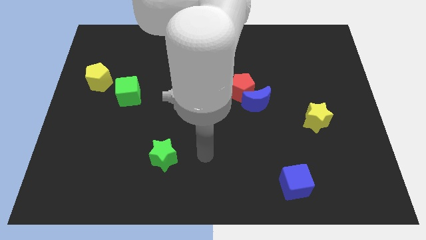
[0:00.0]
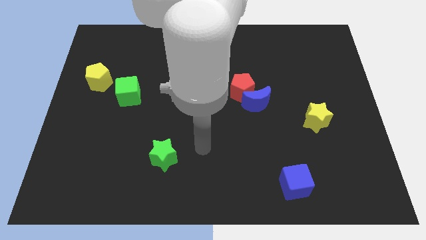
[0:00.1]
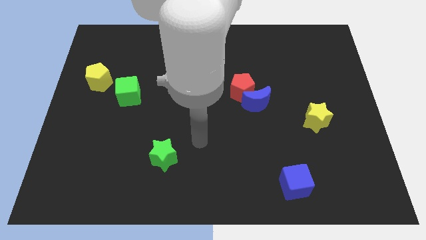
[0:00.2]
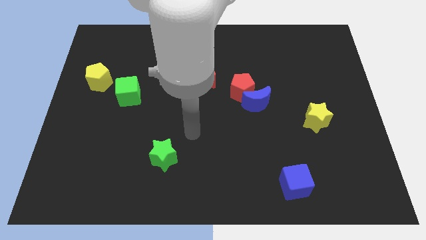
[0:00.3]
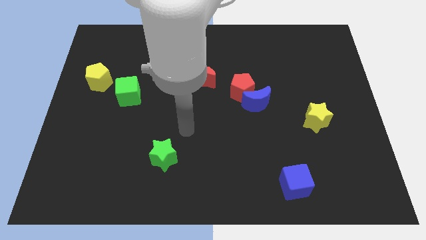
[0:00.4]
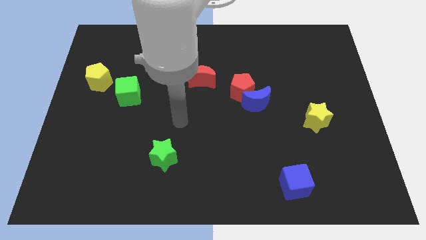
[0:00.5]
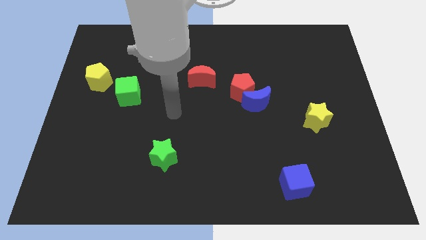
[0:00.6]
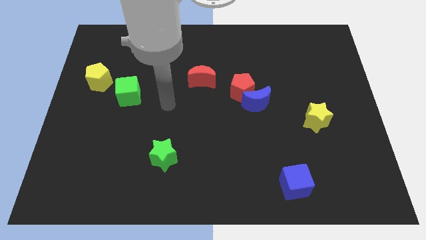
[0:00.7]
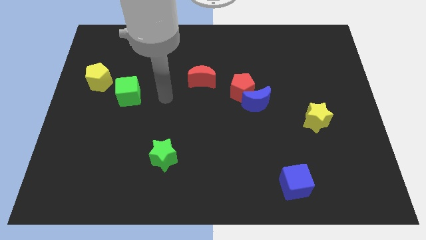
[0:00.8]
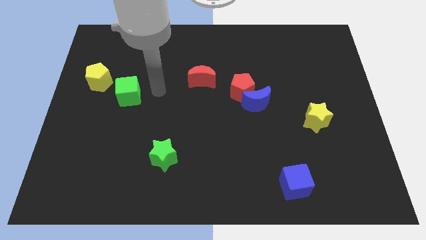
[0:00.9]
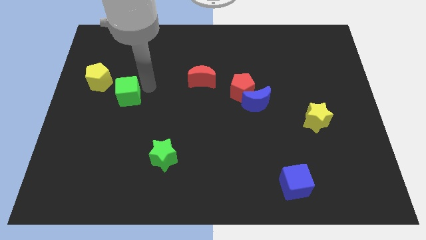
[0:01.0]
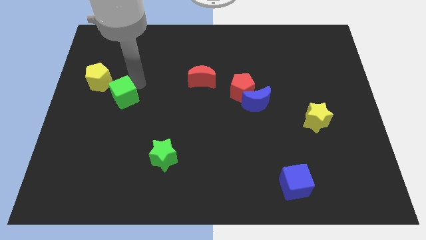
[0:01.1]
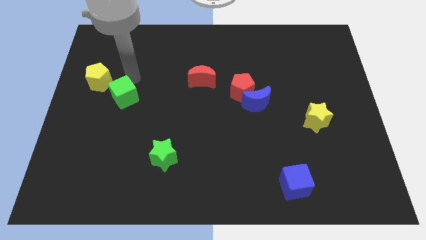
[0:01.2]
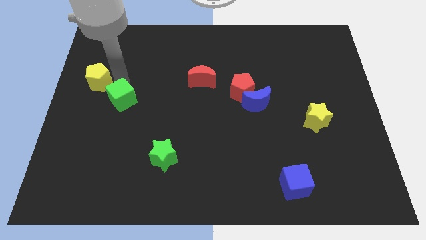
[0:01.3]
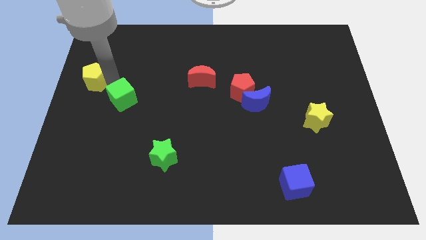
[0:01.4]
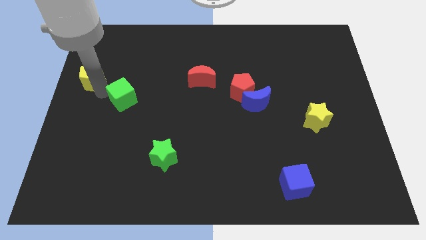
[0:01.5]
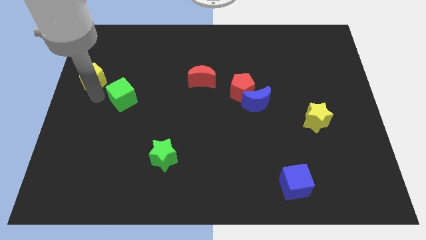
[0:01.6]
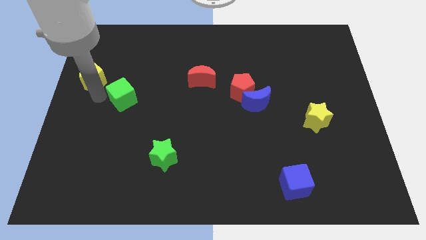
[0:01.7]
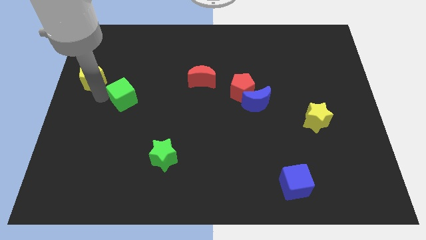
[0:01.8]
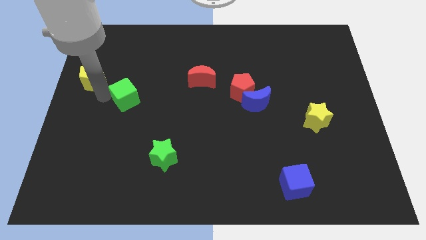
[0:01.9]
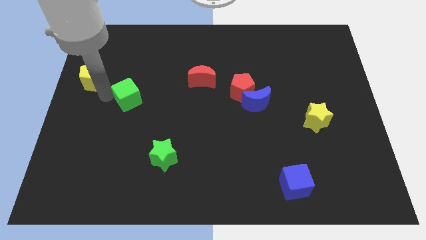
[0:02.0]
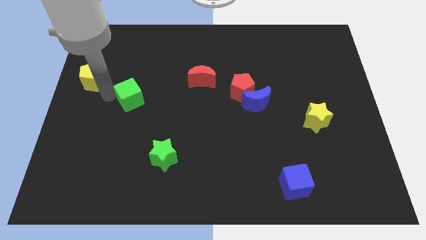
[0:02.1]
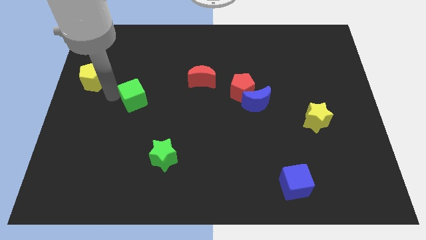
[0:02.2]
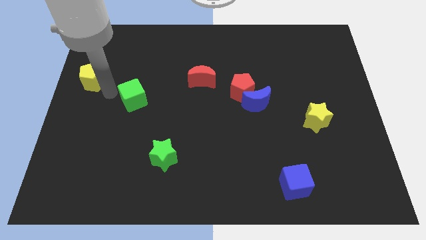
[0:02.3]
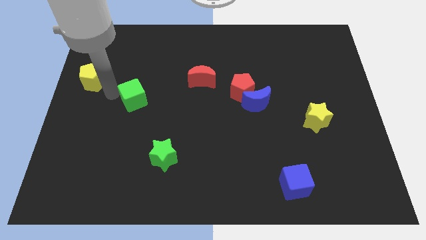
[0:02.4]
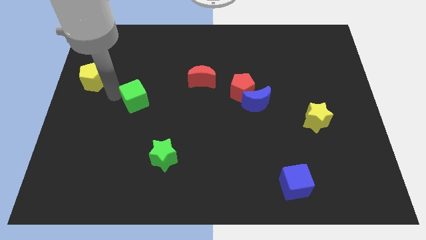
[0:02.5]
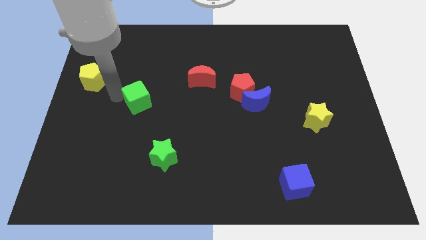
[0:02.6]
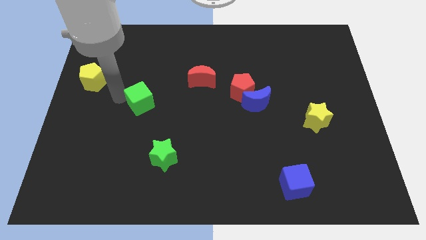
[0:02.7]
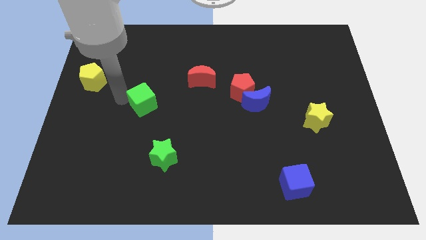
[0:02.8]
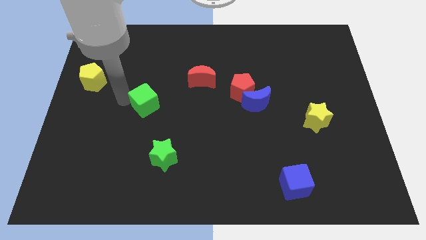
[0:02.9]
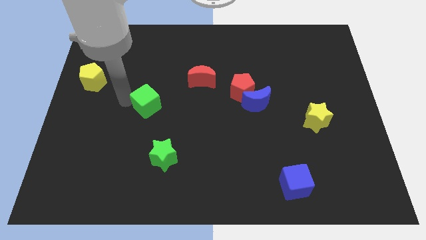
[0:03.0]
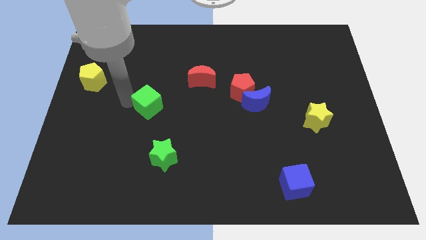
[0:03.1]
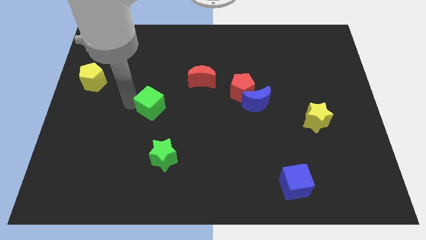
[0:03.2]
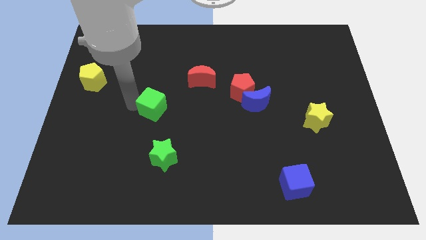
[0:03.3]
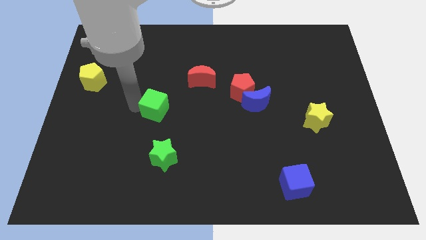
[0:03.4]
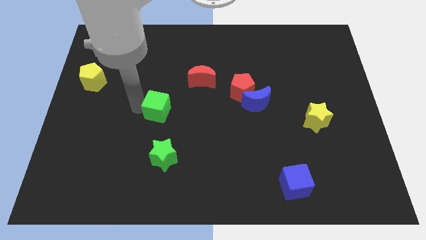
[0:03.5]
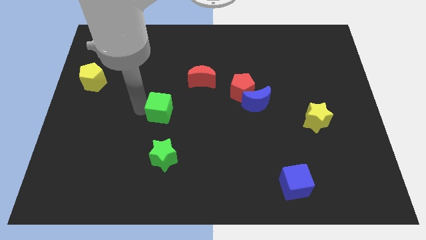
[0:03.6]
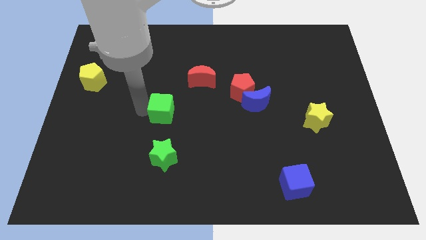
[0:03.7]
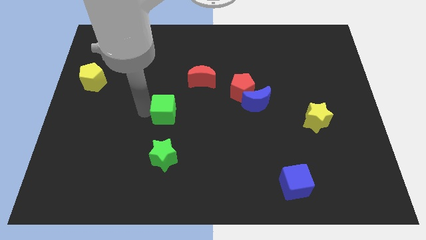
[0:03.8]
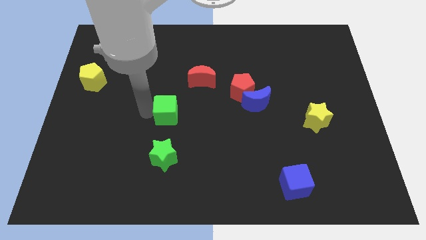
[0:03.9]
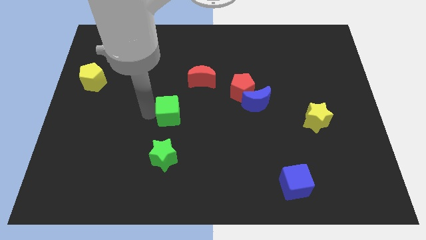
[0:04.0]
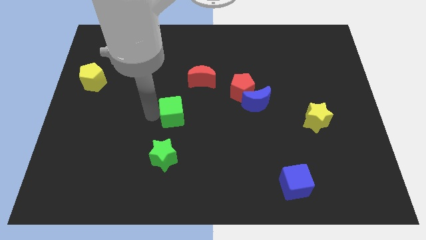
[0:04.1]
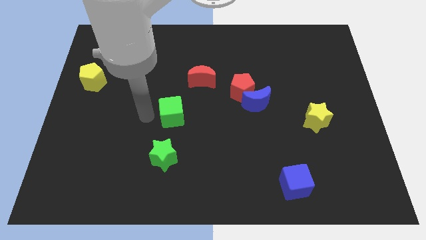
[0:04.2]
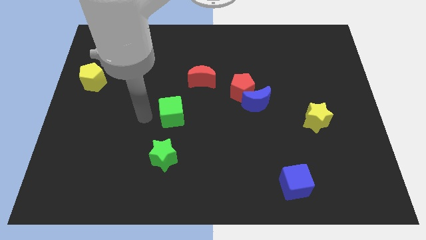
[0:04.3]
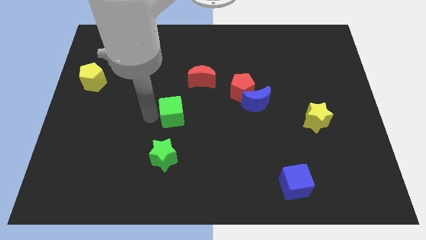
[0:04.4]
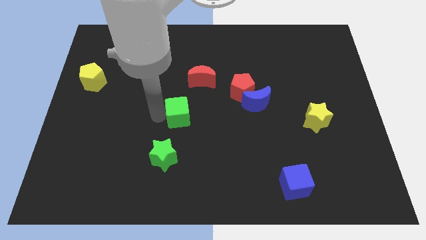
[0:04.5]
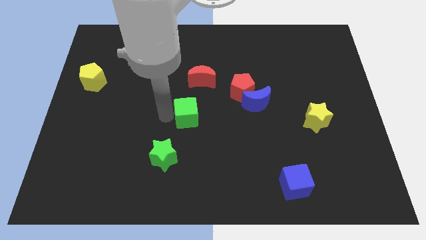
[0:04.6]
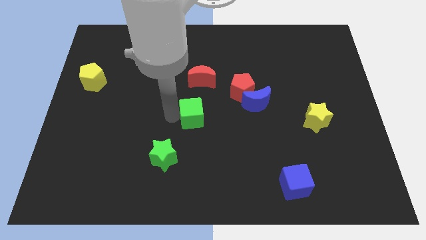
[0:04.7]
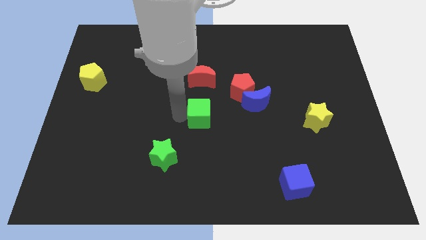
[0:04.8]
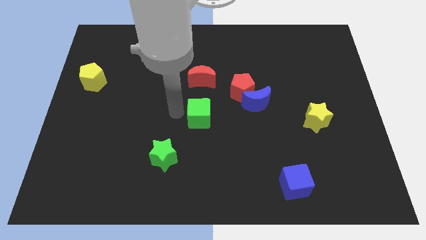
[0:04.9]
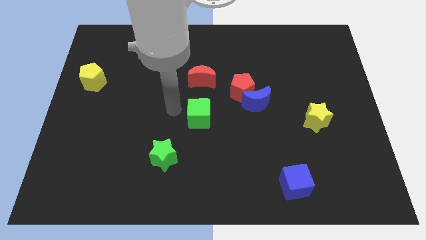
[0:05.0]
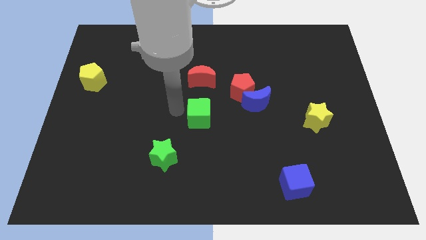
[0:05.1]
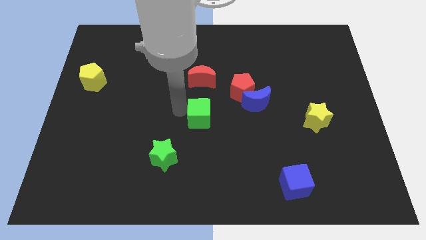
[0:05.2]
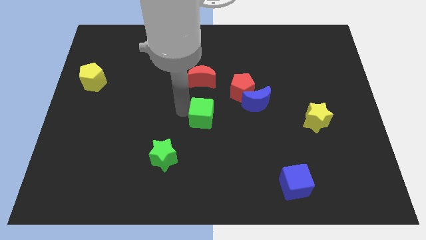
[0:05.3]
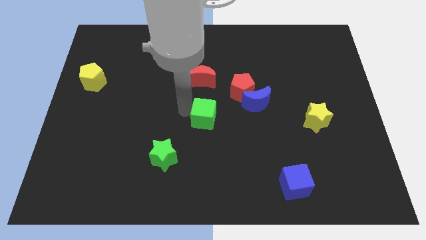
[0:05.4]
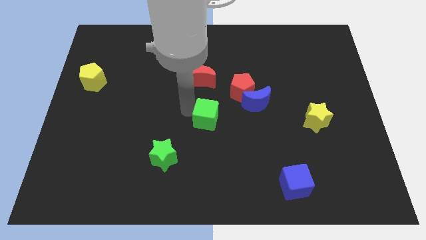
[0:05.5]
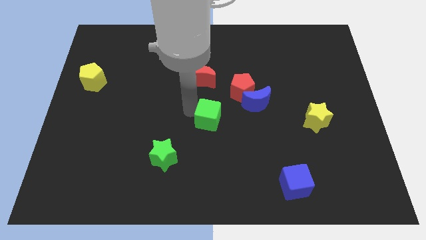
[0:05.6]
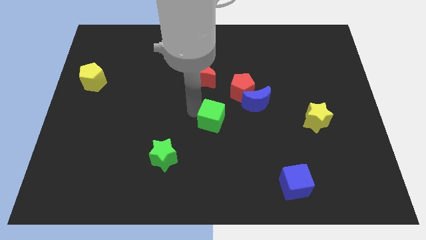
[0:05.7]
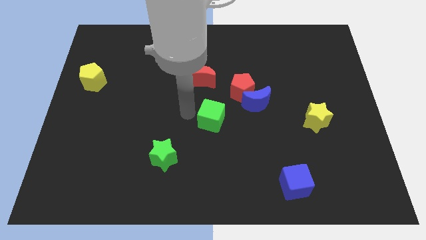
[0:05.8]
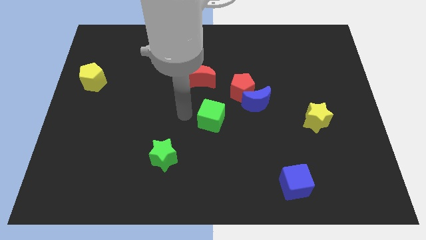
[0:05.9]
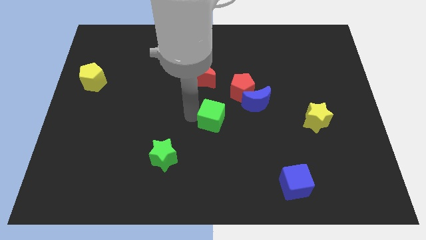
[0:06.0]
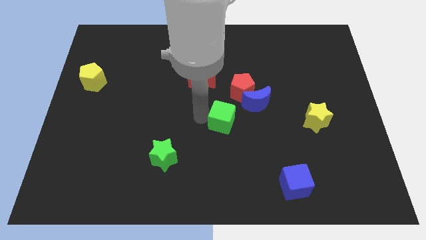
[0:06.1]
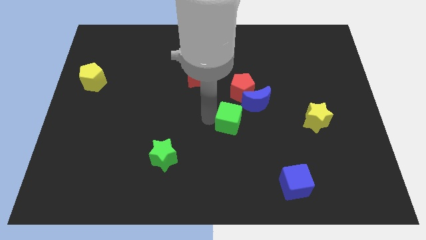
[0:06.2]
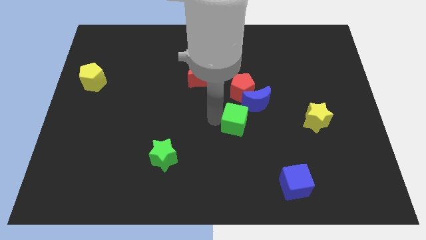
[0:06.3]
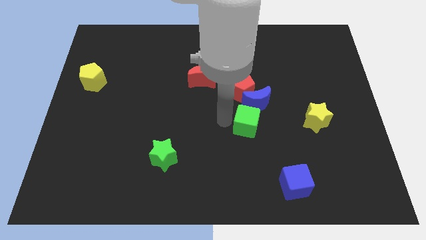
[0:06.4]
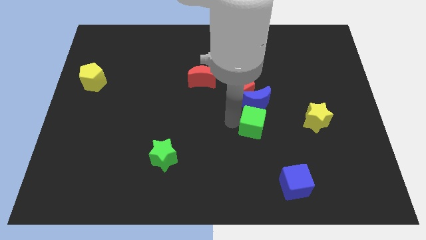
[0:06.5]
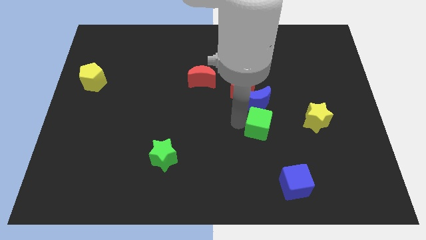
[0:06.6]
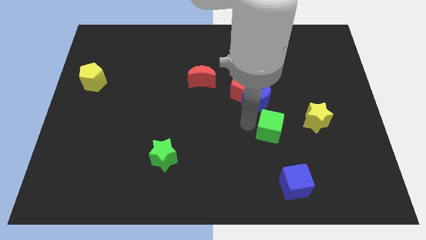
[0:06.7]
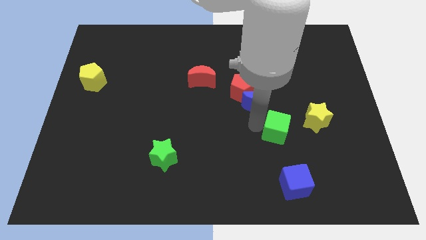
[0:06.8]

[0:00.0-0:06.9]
move the green cube diagonally down and to the left of the yellow star

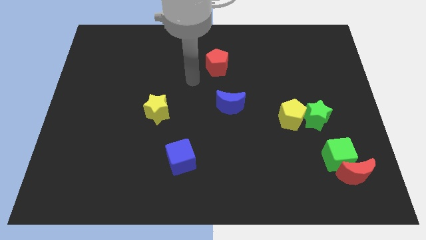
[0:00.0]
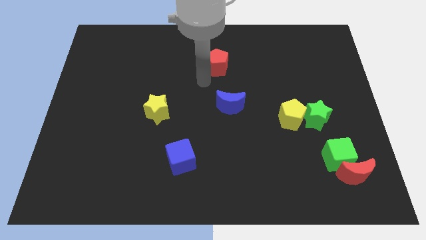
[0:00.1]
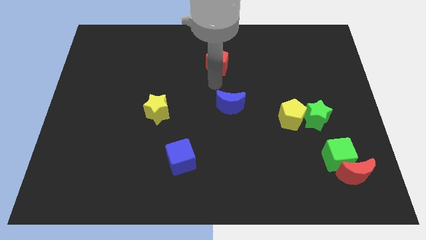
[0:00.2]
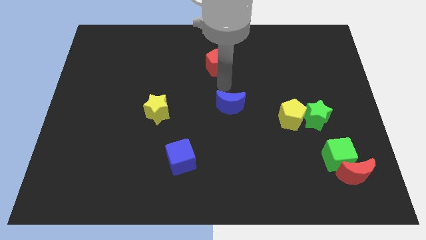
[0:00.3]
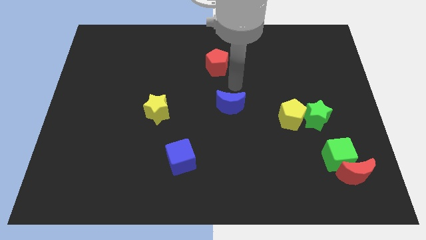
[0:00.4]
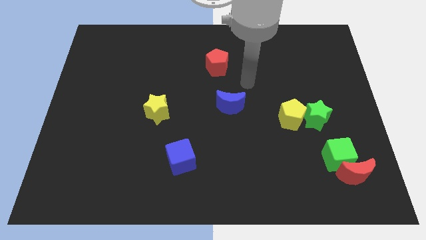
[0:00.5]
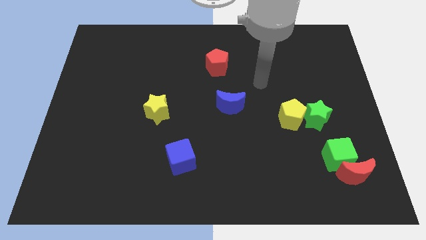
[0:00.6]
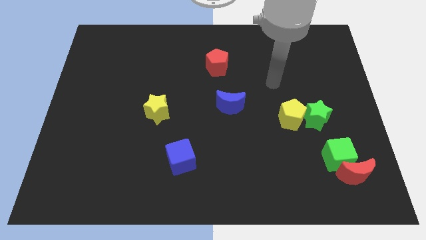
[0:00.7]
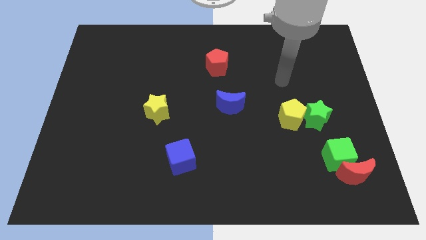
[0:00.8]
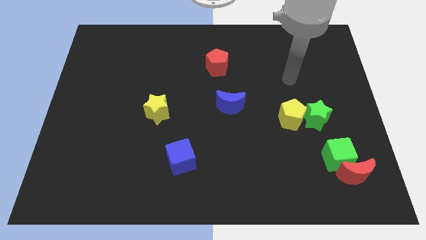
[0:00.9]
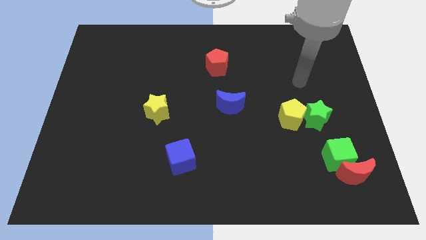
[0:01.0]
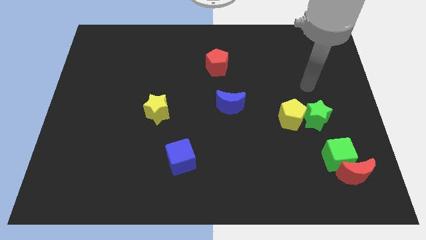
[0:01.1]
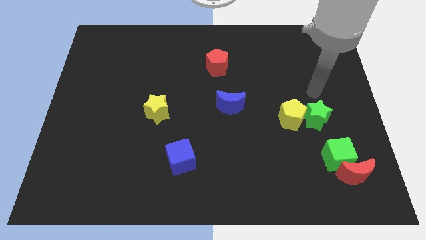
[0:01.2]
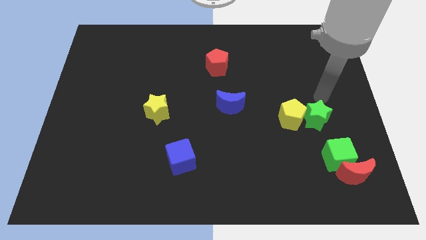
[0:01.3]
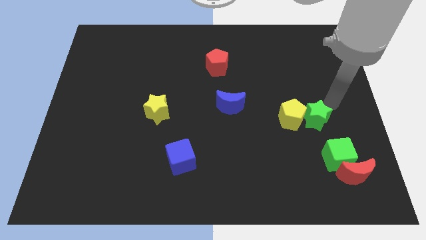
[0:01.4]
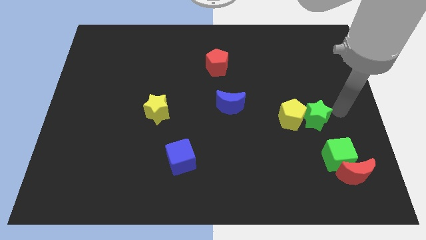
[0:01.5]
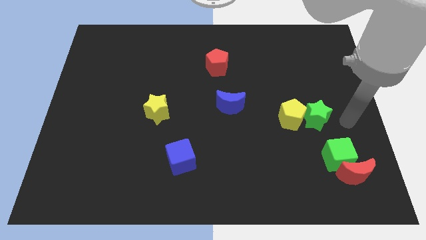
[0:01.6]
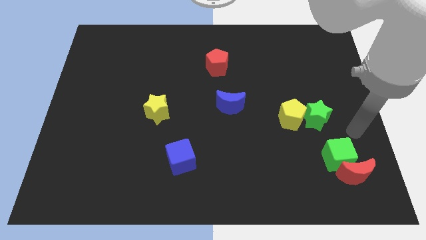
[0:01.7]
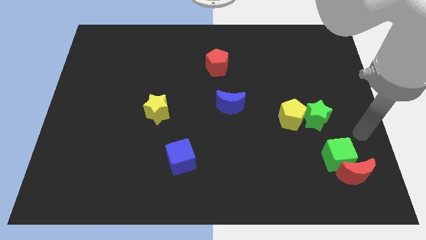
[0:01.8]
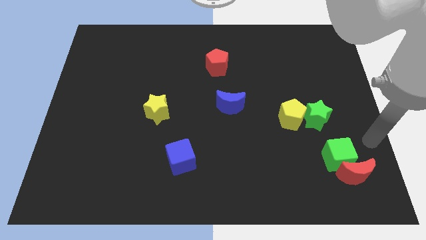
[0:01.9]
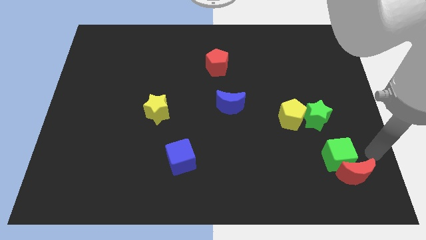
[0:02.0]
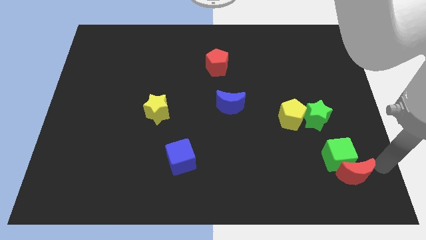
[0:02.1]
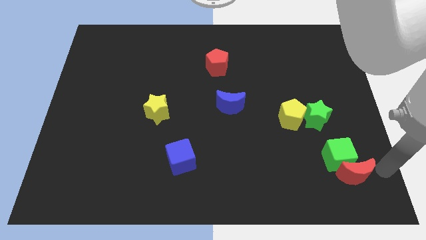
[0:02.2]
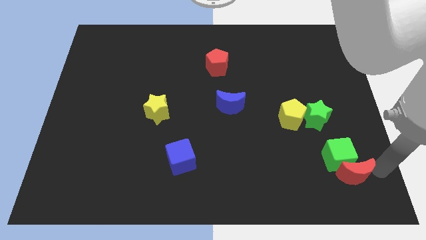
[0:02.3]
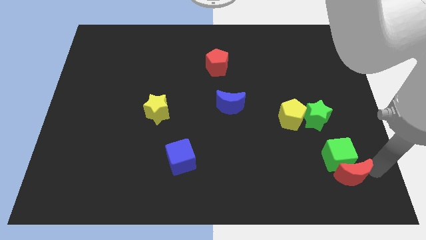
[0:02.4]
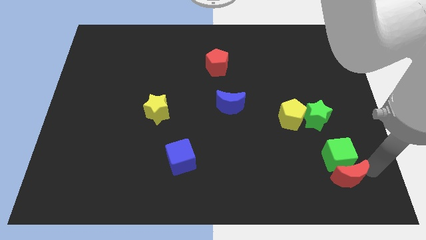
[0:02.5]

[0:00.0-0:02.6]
put the red moon to the bottom left of the green cube
